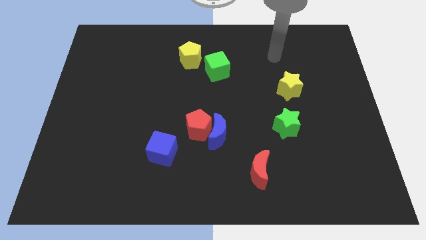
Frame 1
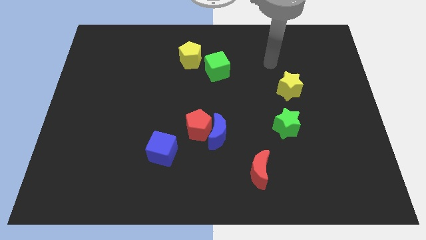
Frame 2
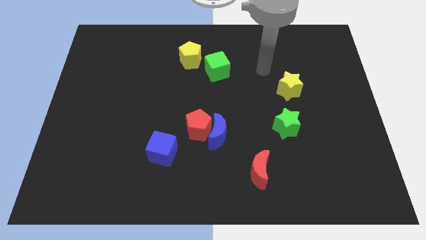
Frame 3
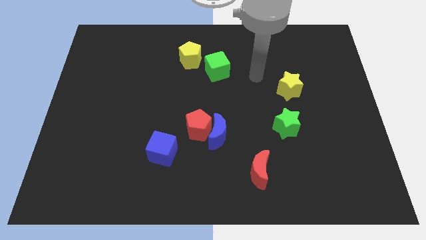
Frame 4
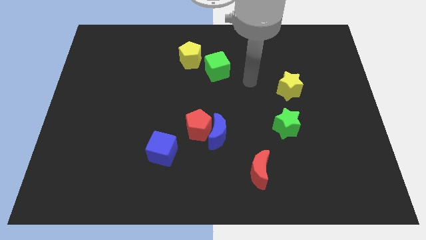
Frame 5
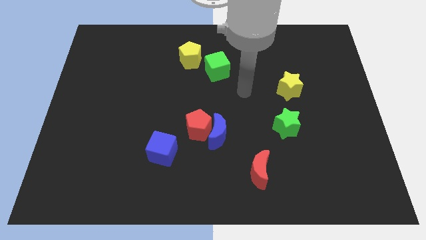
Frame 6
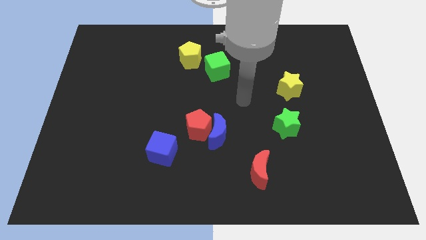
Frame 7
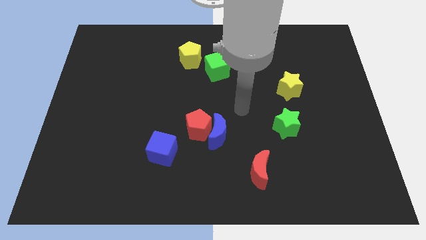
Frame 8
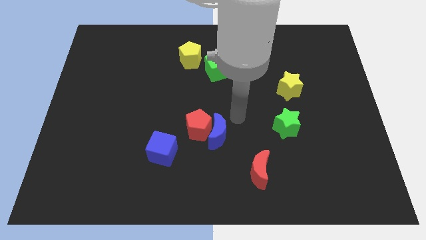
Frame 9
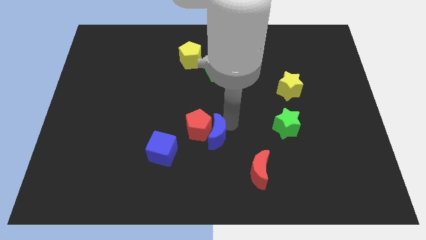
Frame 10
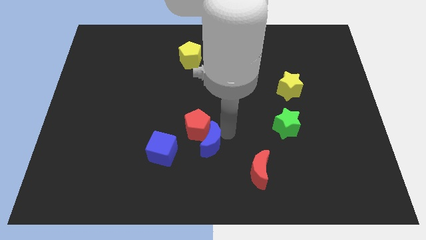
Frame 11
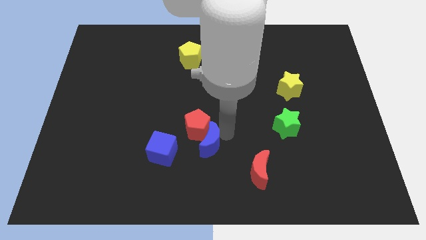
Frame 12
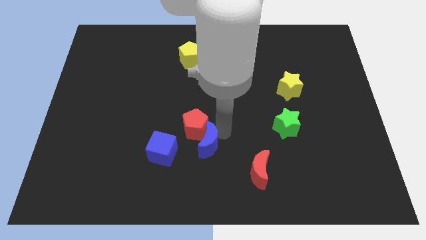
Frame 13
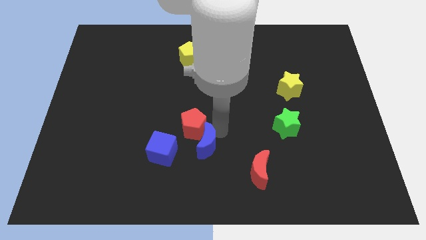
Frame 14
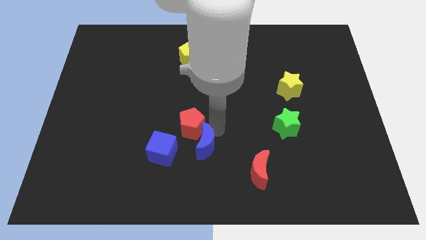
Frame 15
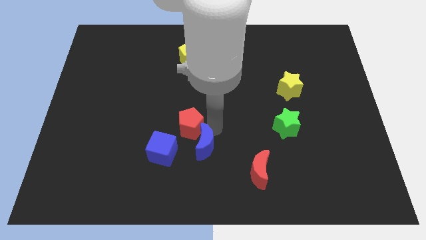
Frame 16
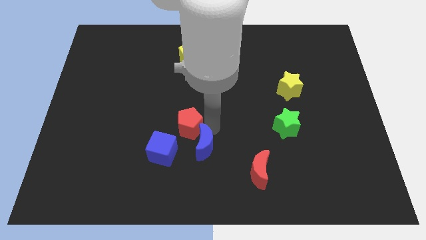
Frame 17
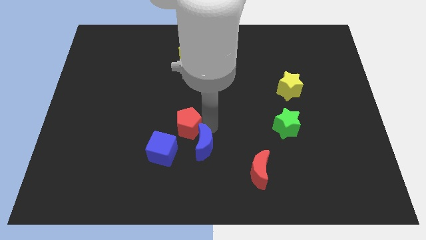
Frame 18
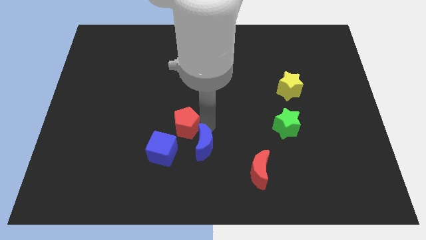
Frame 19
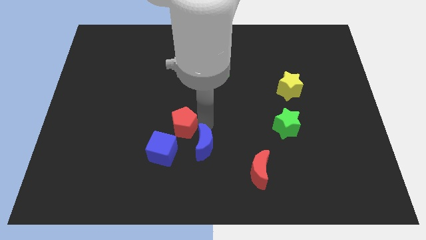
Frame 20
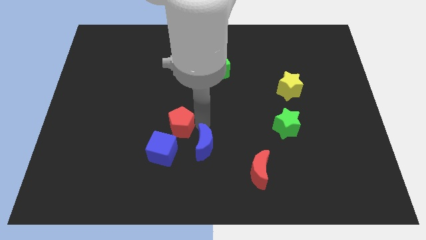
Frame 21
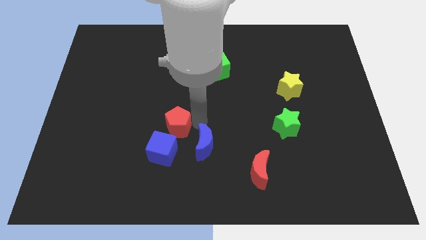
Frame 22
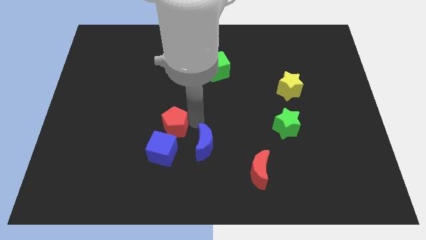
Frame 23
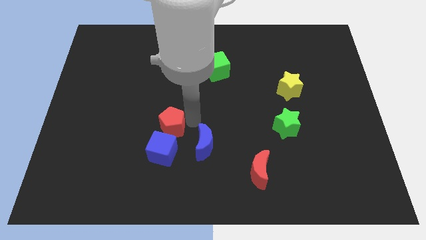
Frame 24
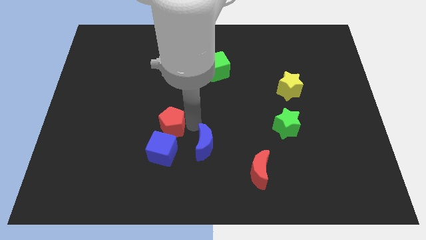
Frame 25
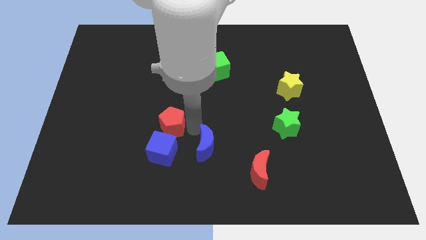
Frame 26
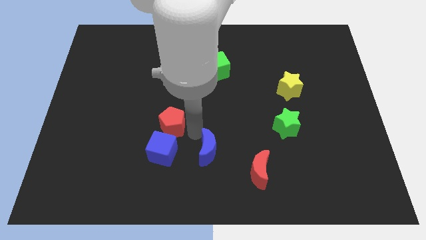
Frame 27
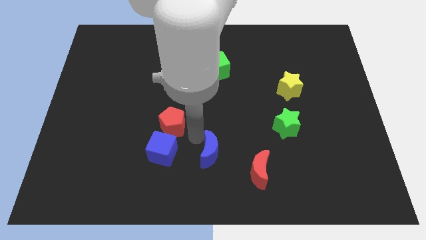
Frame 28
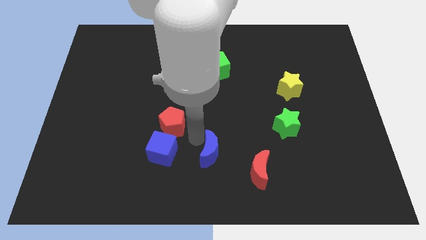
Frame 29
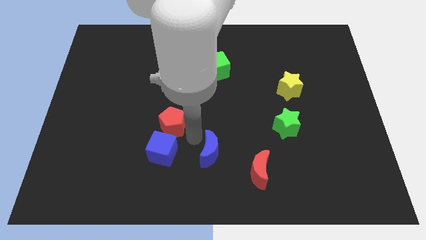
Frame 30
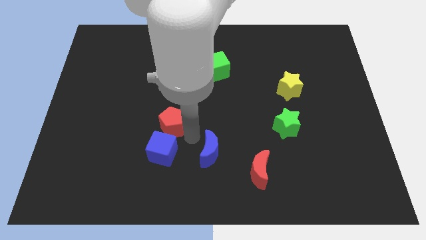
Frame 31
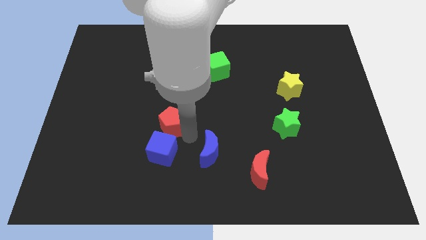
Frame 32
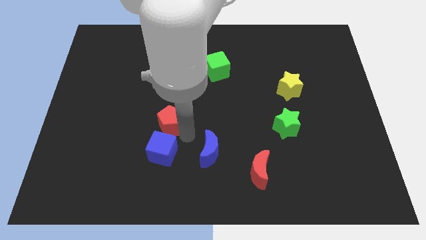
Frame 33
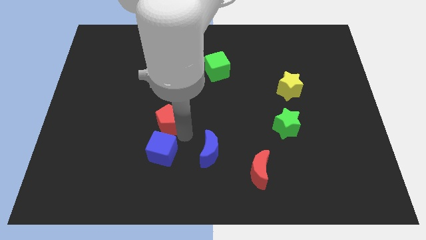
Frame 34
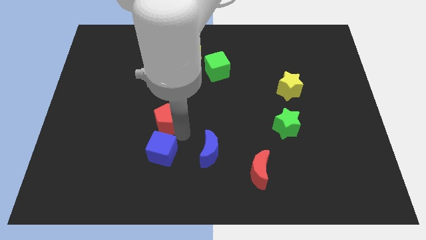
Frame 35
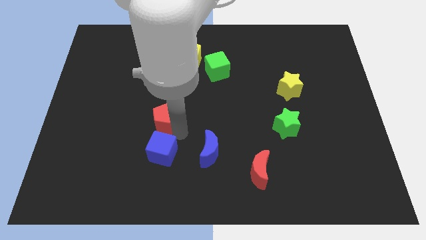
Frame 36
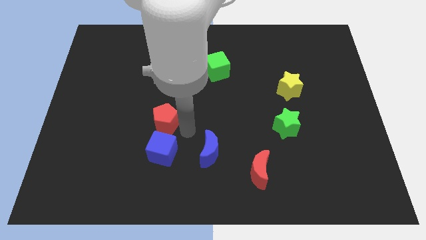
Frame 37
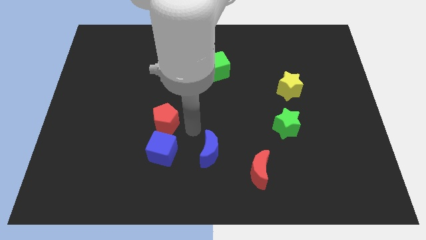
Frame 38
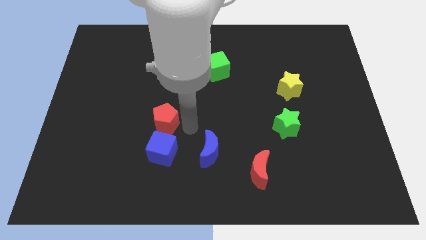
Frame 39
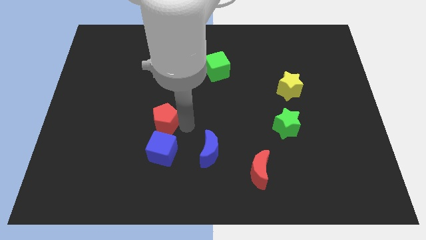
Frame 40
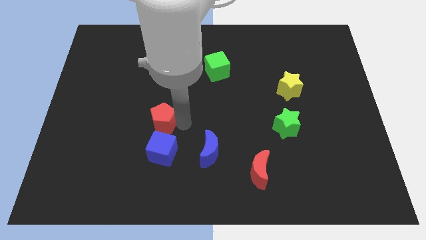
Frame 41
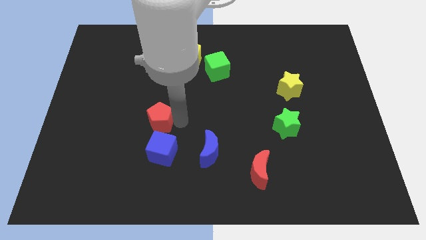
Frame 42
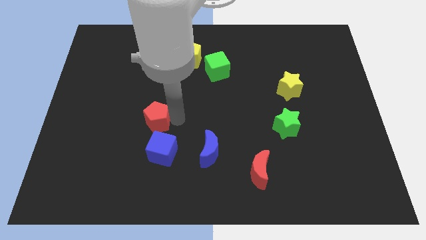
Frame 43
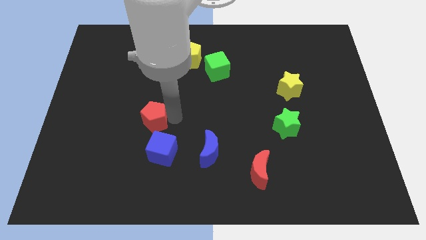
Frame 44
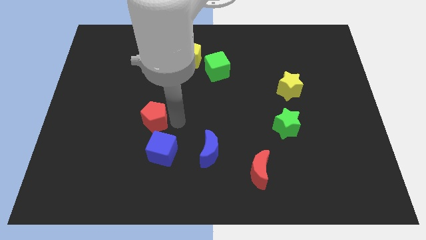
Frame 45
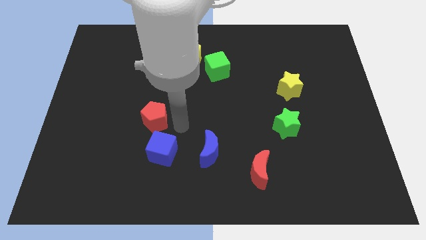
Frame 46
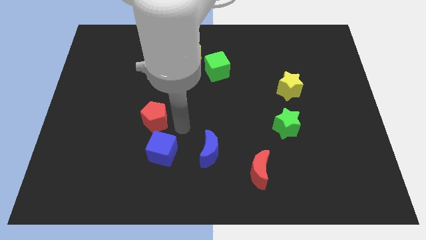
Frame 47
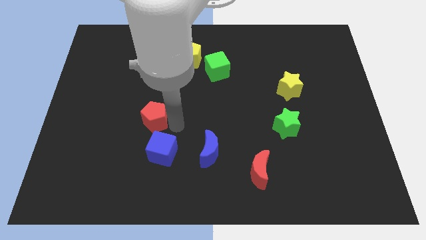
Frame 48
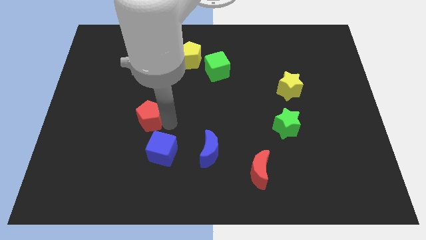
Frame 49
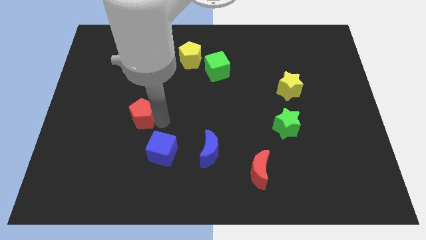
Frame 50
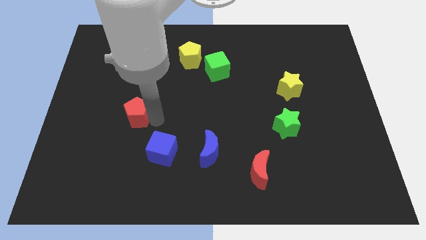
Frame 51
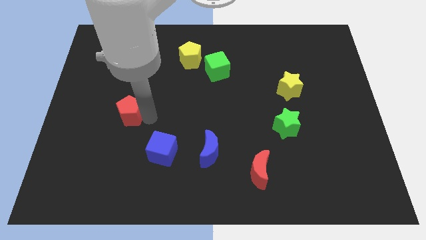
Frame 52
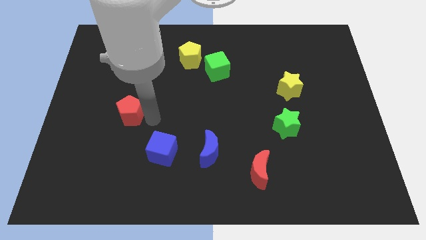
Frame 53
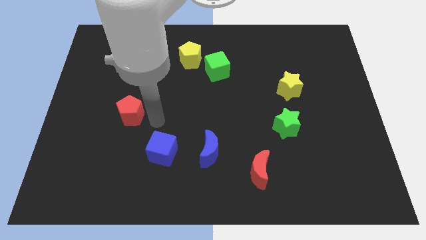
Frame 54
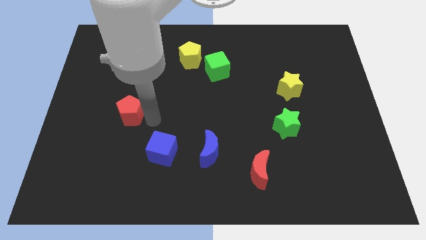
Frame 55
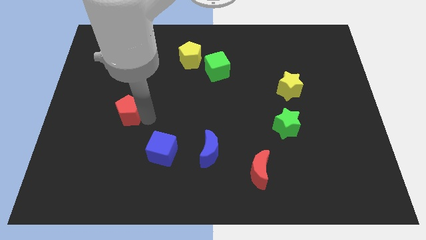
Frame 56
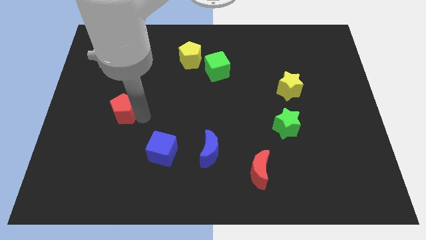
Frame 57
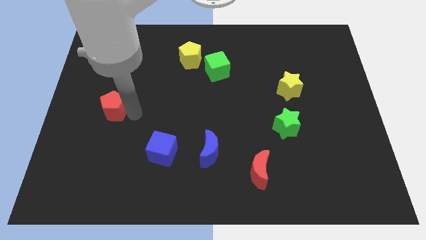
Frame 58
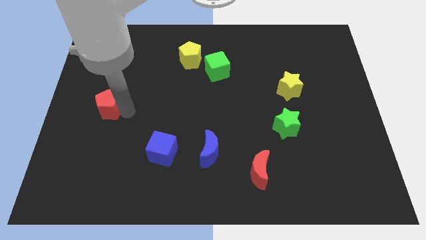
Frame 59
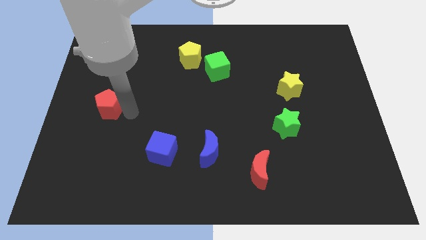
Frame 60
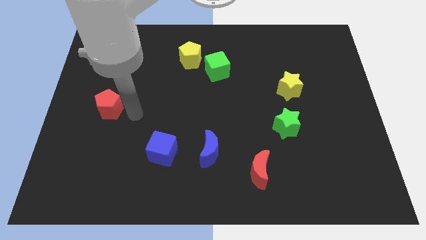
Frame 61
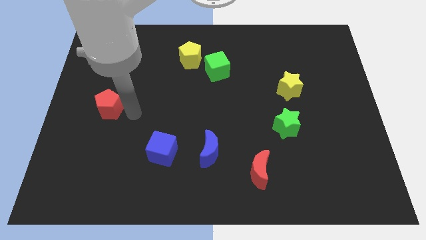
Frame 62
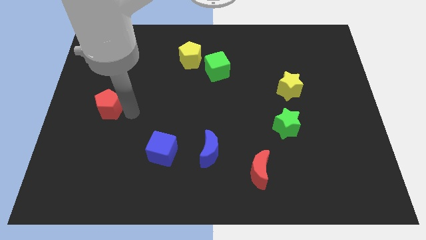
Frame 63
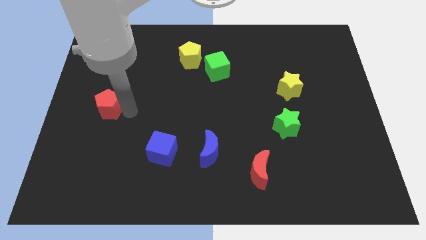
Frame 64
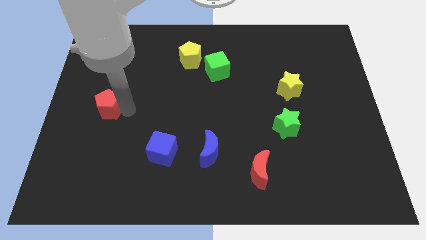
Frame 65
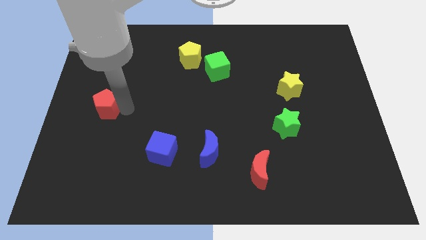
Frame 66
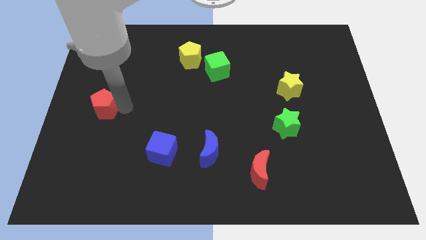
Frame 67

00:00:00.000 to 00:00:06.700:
move the red pentagon to the left side of the board

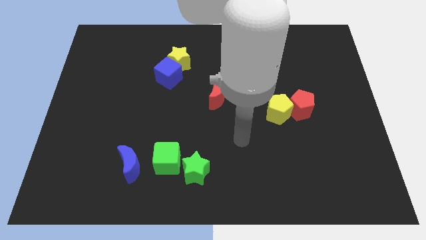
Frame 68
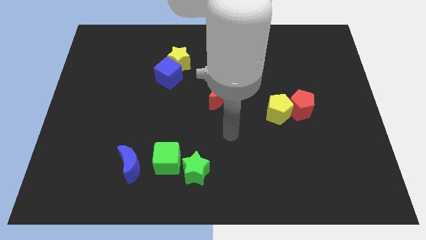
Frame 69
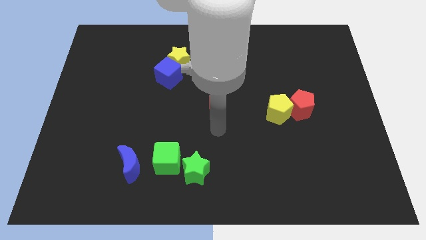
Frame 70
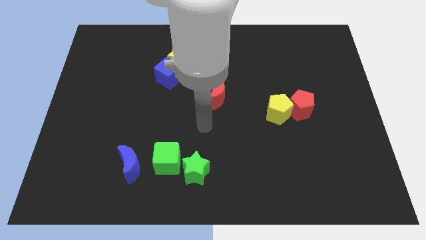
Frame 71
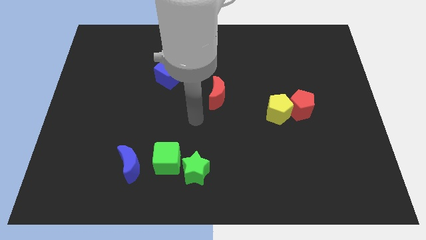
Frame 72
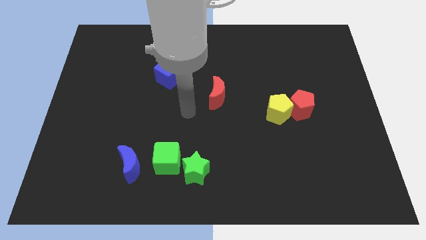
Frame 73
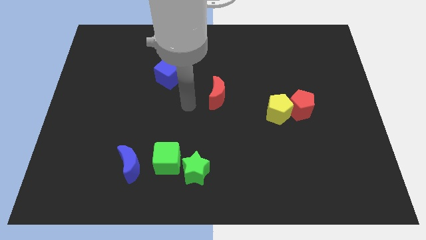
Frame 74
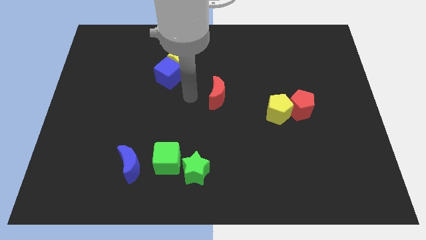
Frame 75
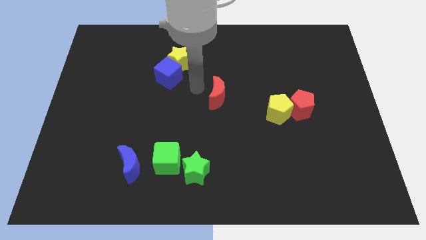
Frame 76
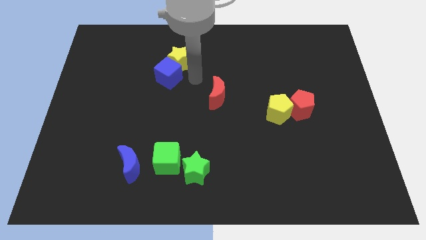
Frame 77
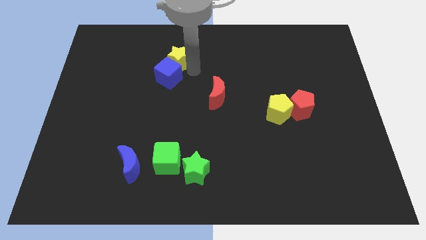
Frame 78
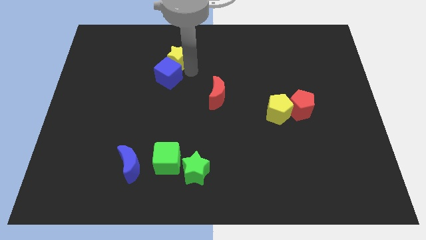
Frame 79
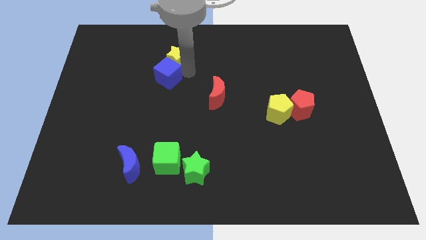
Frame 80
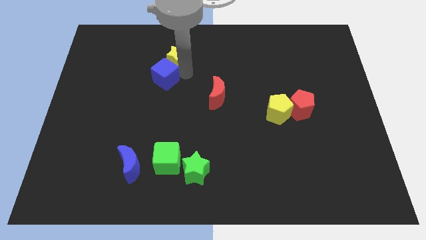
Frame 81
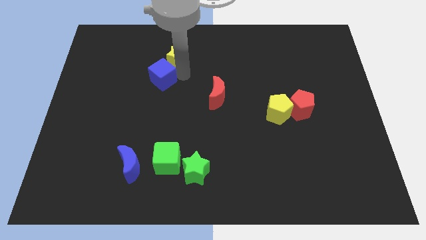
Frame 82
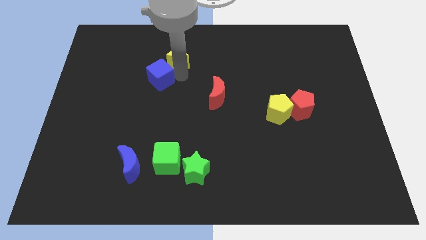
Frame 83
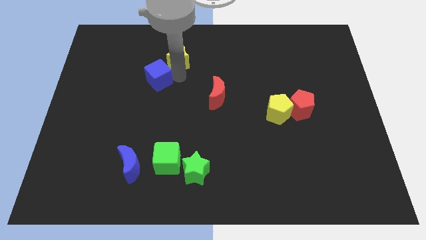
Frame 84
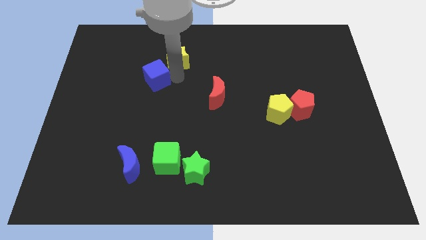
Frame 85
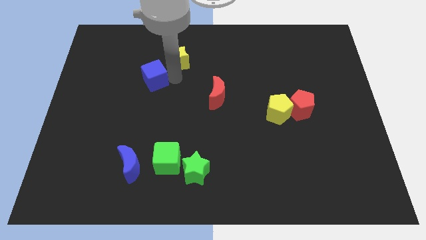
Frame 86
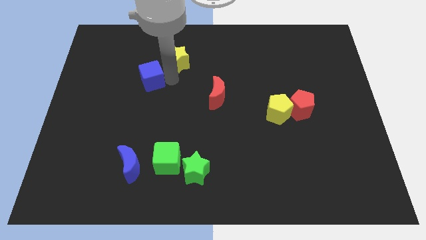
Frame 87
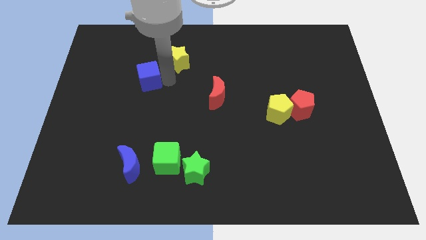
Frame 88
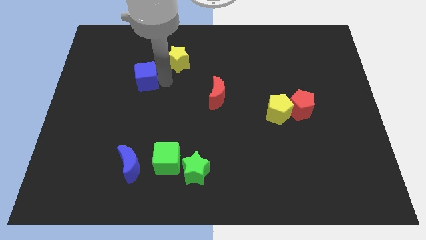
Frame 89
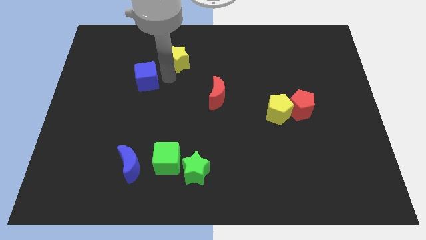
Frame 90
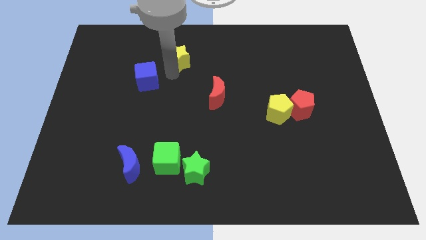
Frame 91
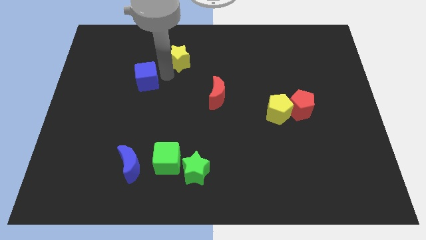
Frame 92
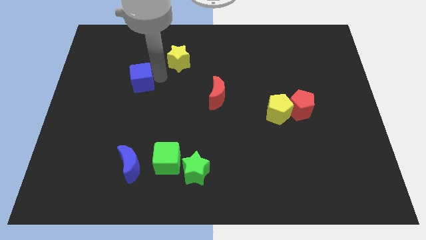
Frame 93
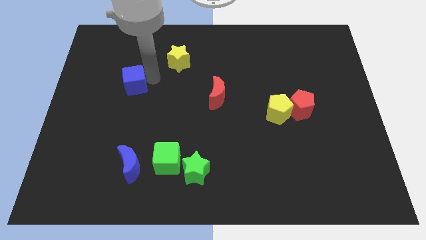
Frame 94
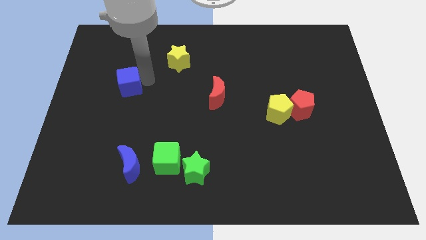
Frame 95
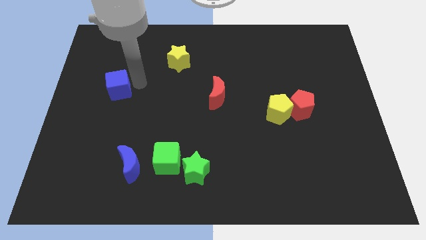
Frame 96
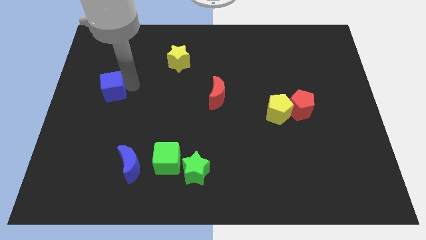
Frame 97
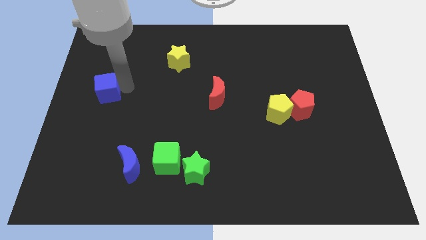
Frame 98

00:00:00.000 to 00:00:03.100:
push the blue cube to the center left
